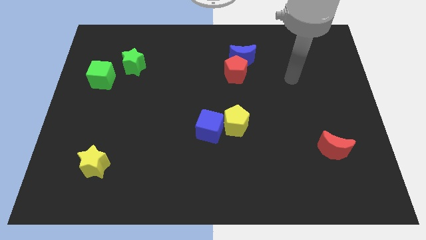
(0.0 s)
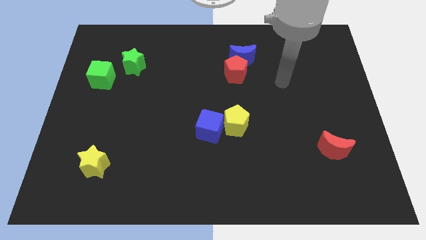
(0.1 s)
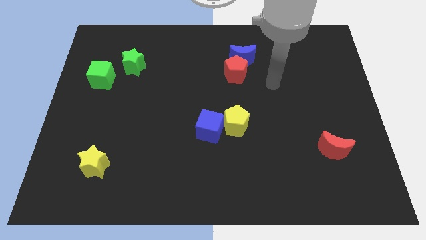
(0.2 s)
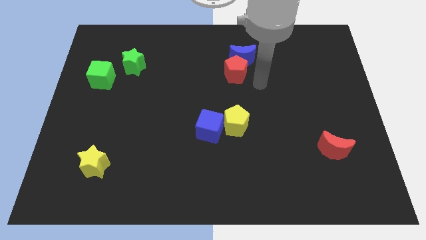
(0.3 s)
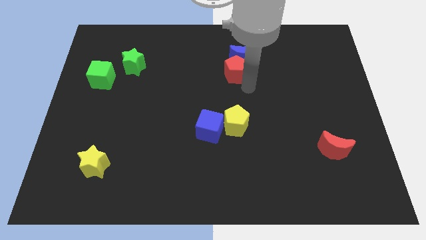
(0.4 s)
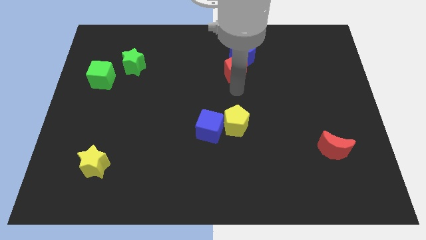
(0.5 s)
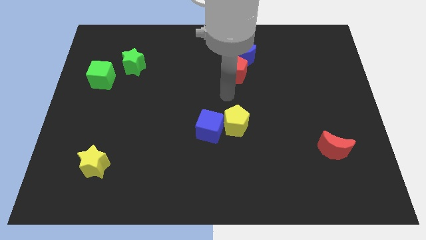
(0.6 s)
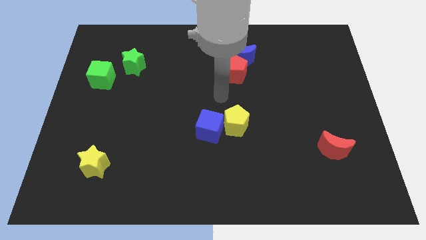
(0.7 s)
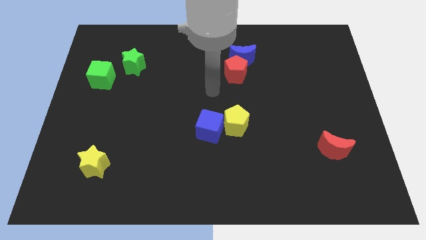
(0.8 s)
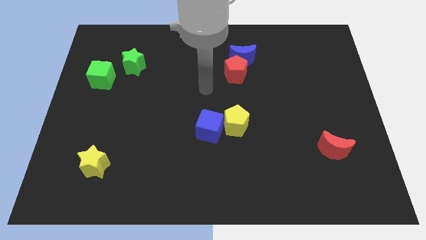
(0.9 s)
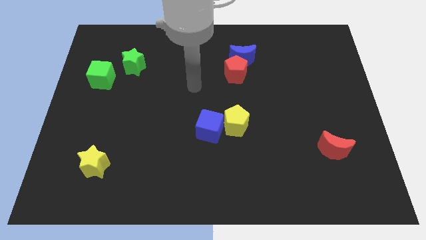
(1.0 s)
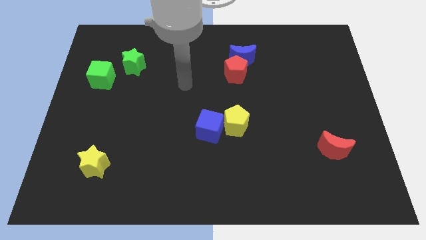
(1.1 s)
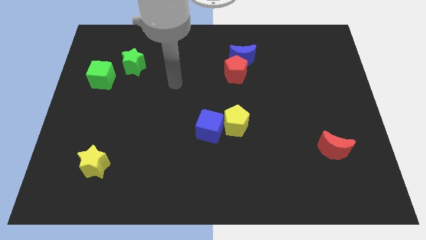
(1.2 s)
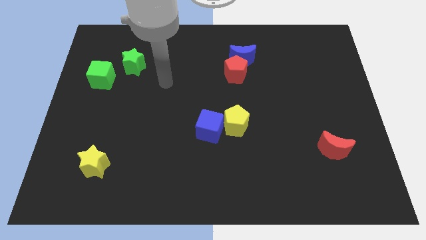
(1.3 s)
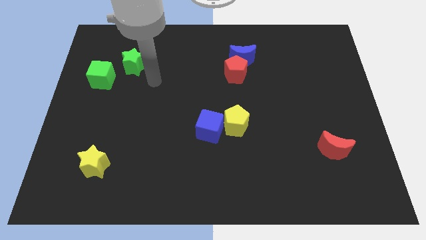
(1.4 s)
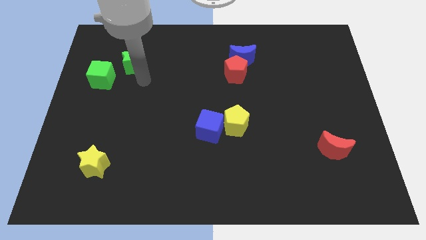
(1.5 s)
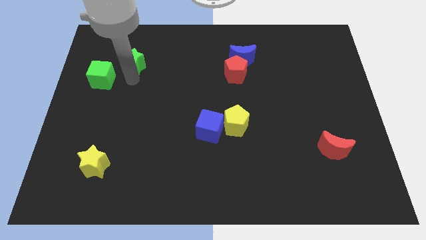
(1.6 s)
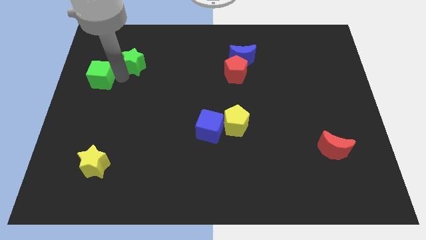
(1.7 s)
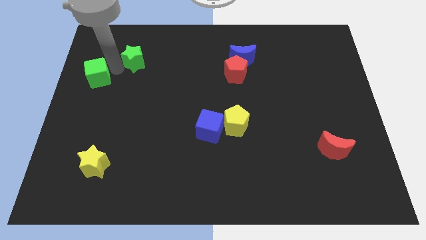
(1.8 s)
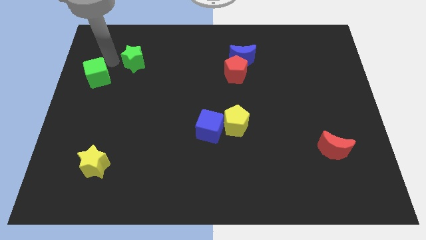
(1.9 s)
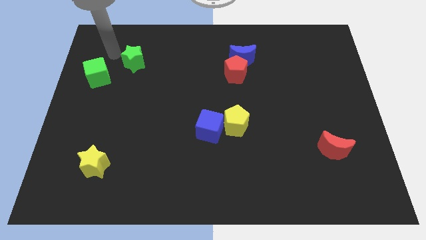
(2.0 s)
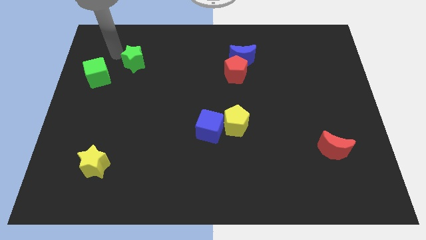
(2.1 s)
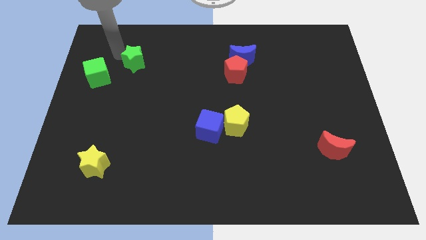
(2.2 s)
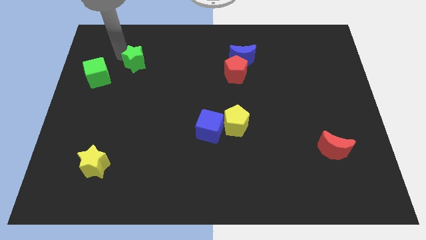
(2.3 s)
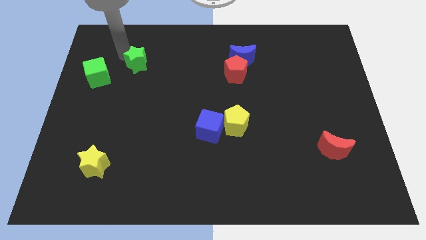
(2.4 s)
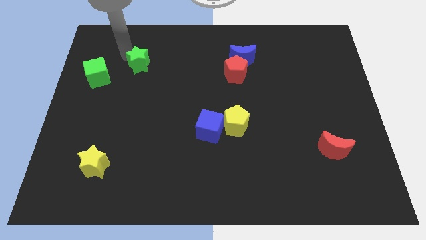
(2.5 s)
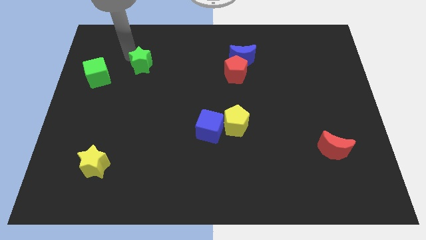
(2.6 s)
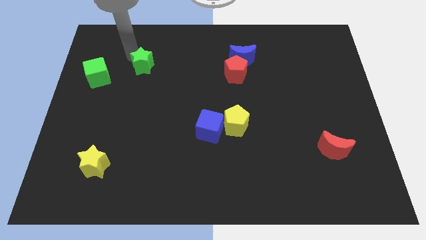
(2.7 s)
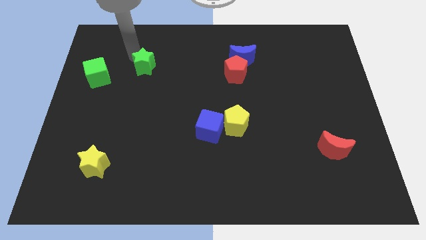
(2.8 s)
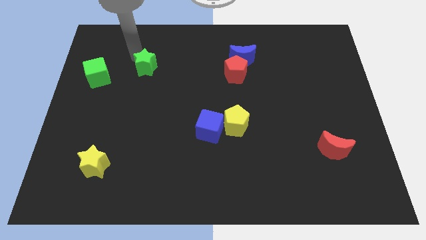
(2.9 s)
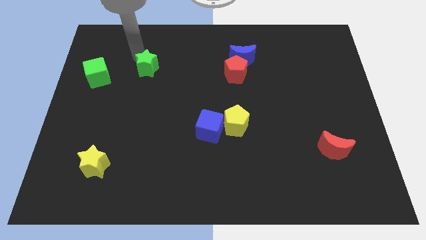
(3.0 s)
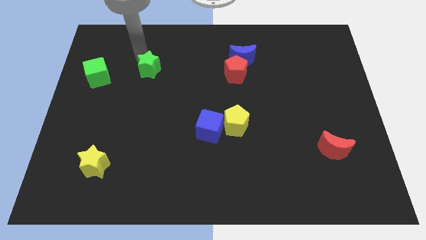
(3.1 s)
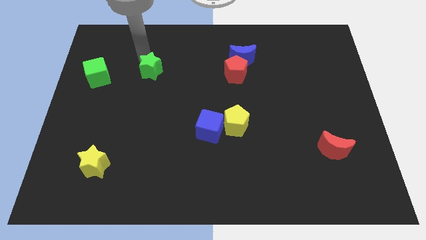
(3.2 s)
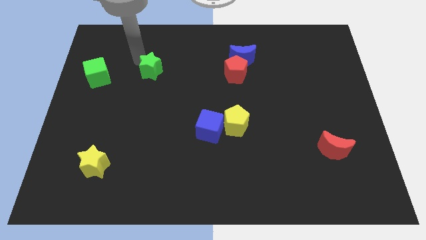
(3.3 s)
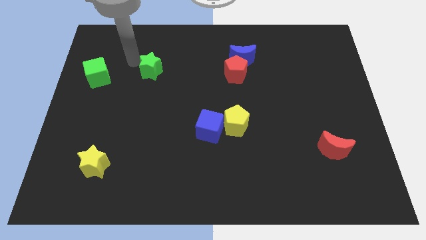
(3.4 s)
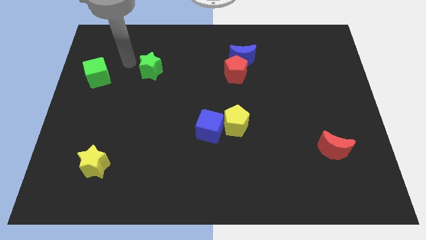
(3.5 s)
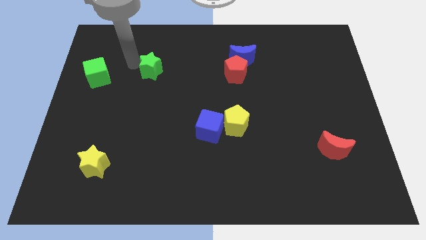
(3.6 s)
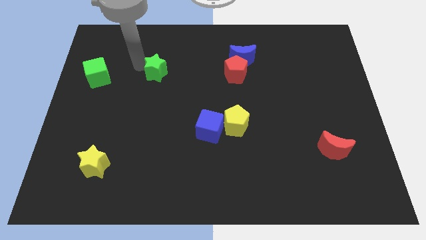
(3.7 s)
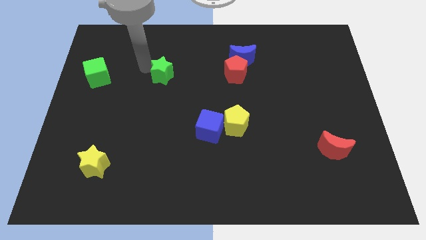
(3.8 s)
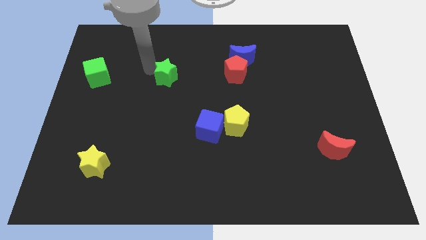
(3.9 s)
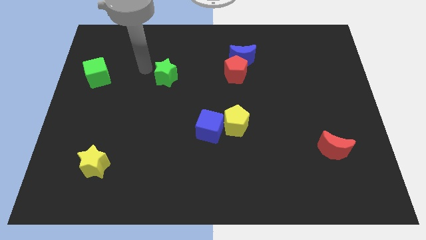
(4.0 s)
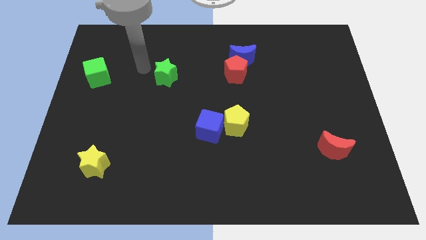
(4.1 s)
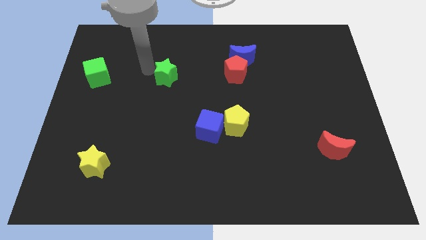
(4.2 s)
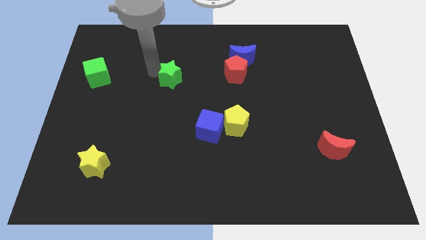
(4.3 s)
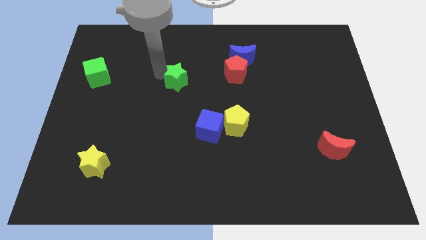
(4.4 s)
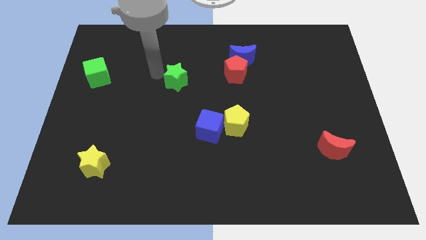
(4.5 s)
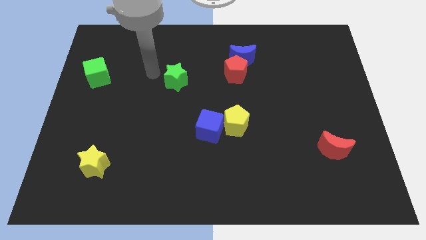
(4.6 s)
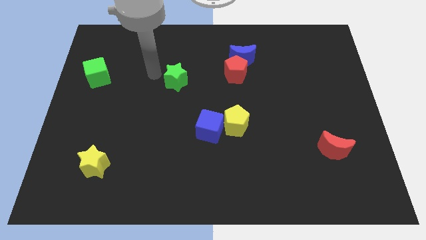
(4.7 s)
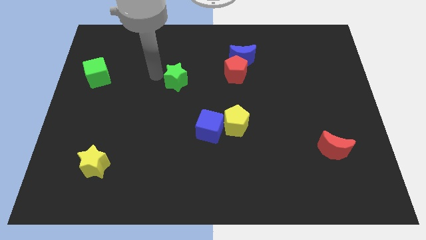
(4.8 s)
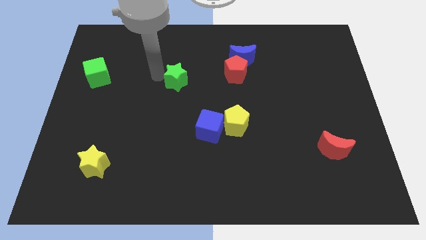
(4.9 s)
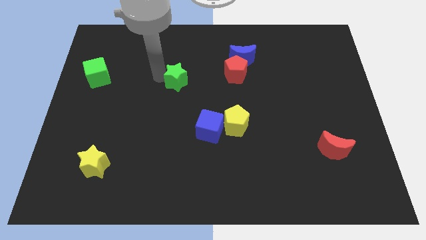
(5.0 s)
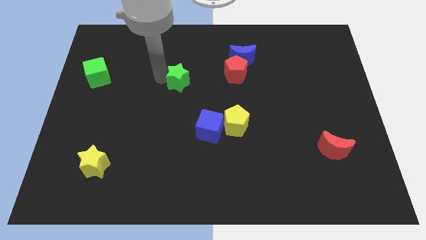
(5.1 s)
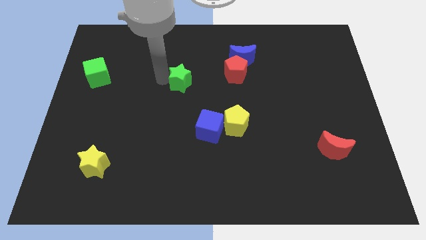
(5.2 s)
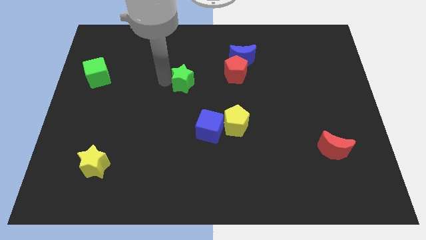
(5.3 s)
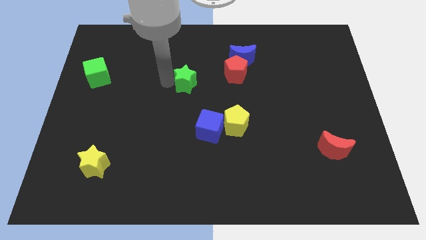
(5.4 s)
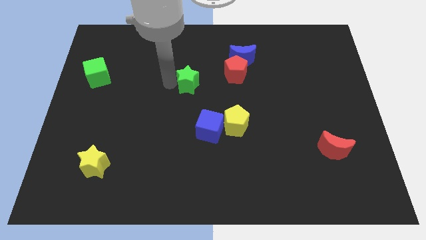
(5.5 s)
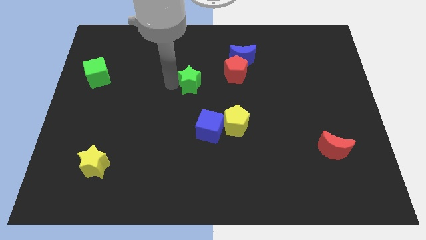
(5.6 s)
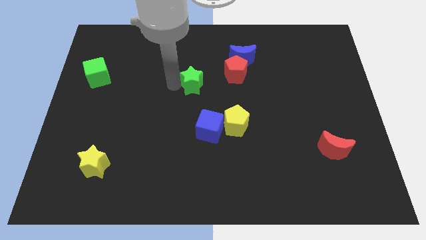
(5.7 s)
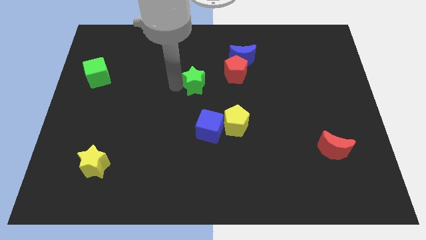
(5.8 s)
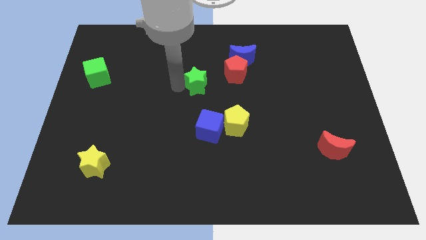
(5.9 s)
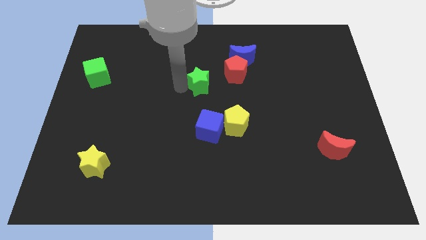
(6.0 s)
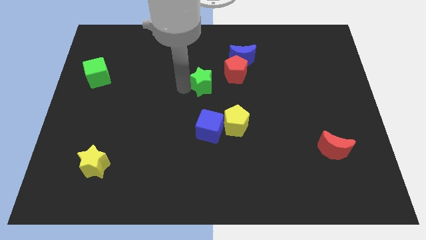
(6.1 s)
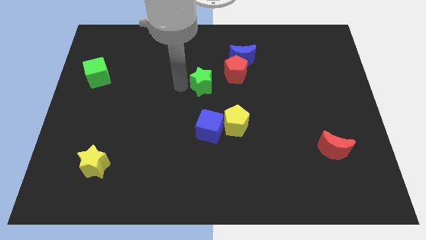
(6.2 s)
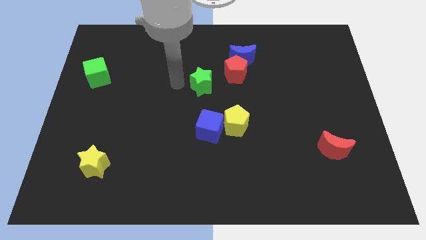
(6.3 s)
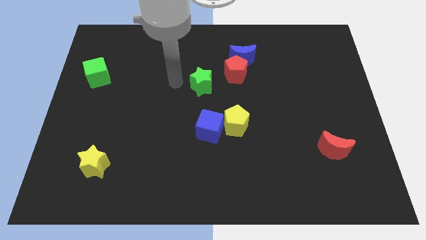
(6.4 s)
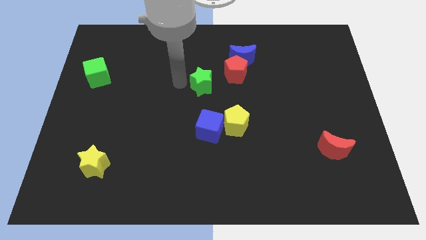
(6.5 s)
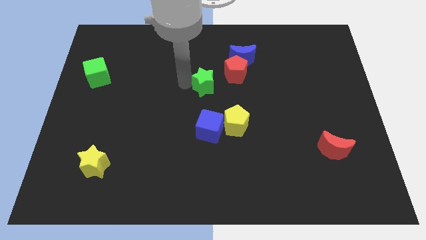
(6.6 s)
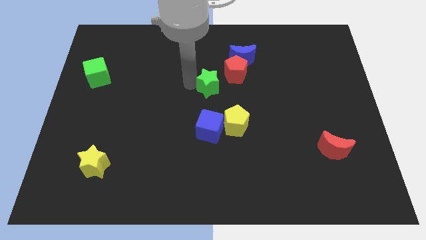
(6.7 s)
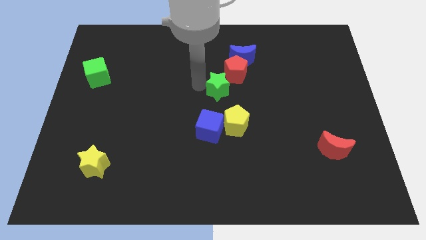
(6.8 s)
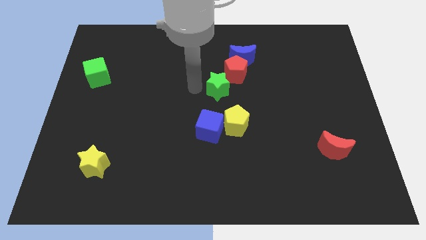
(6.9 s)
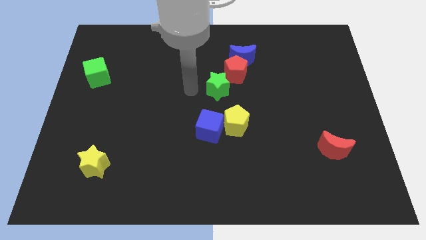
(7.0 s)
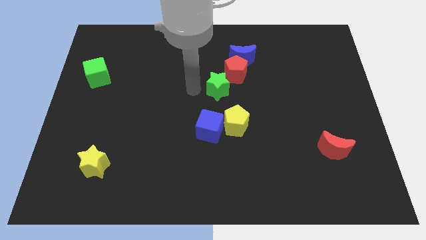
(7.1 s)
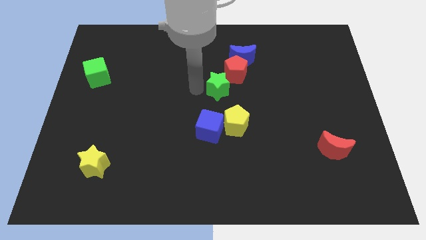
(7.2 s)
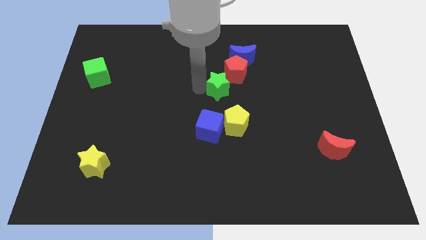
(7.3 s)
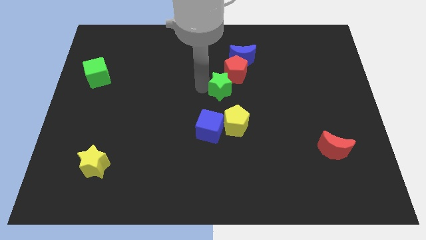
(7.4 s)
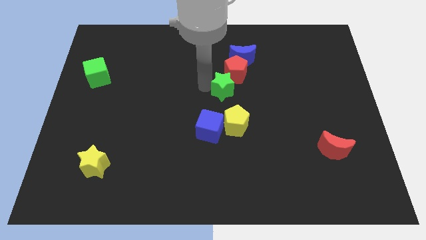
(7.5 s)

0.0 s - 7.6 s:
move the green star to the right

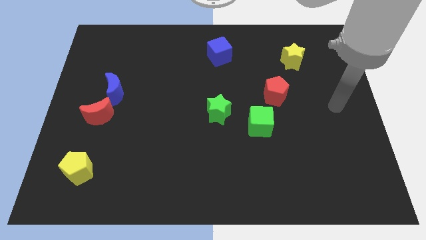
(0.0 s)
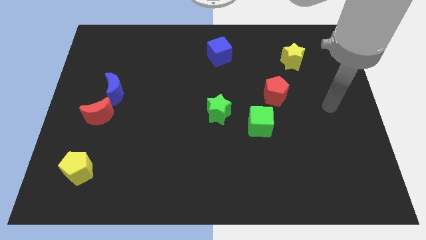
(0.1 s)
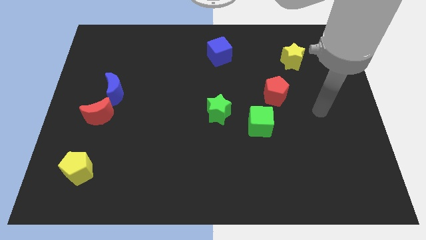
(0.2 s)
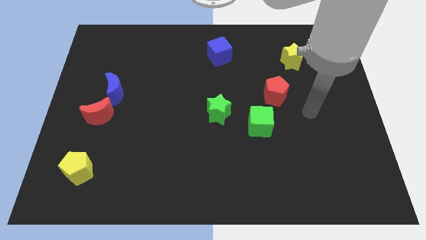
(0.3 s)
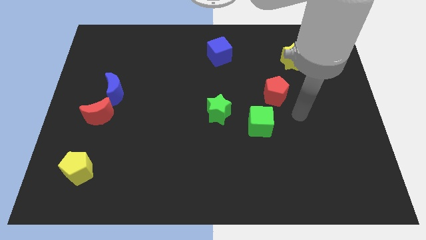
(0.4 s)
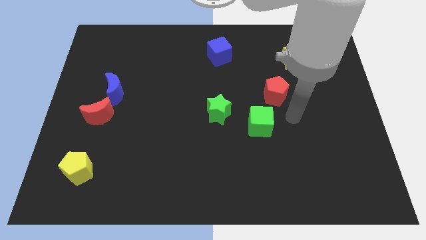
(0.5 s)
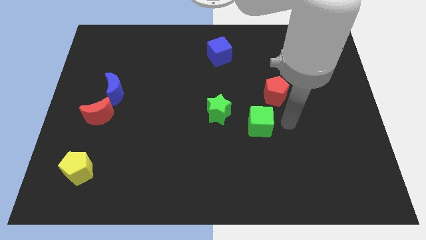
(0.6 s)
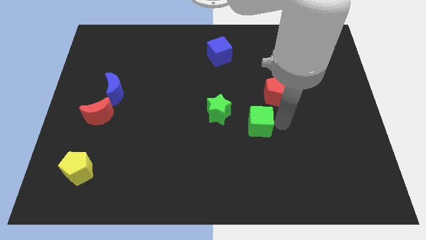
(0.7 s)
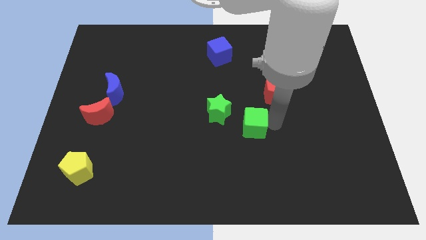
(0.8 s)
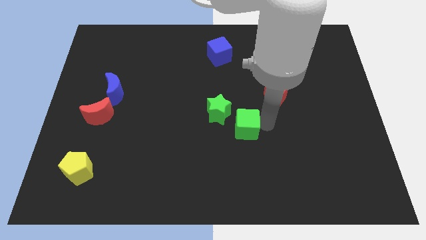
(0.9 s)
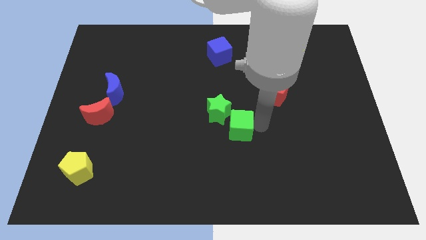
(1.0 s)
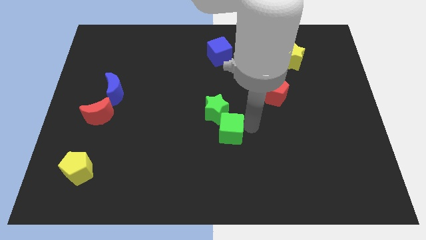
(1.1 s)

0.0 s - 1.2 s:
slightly move the green cube to the left
